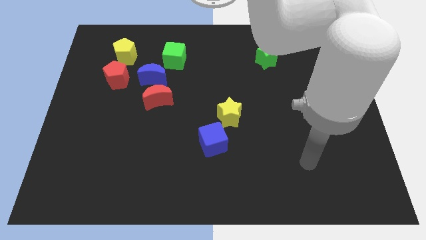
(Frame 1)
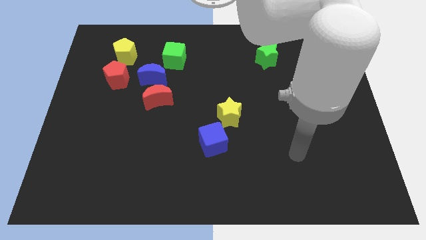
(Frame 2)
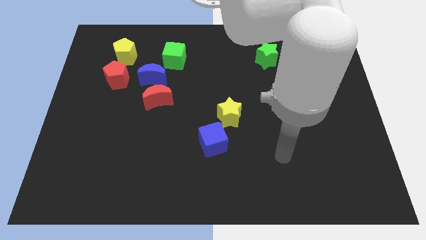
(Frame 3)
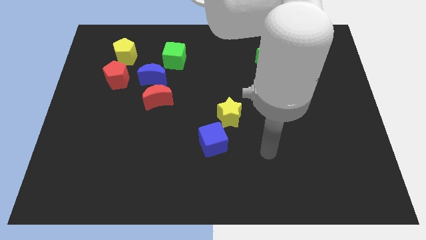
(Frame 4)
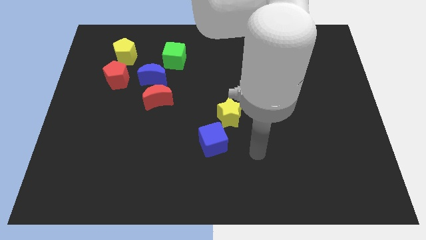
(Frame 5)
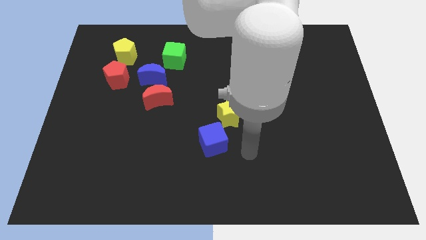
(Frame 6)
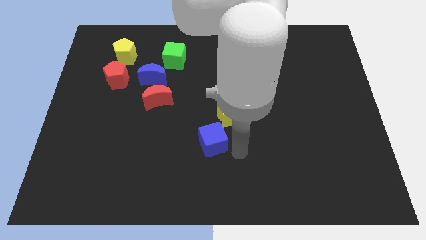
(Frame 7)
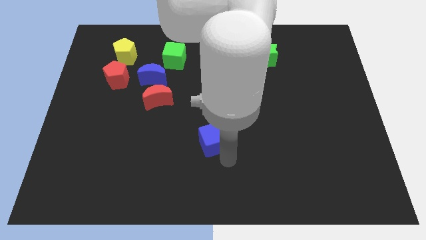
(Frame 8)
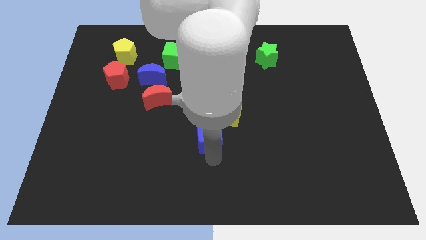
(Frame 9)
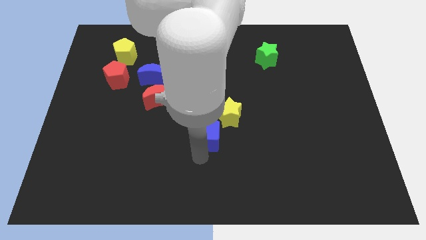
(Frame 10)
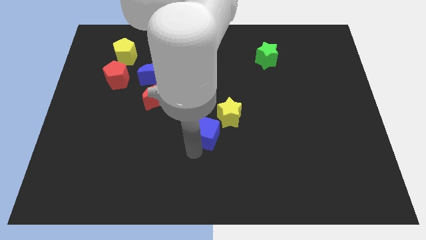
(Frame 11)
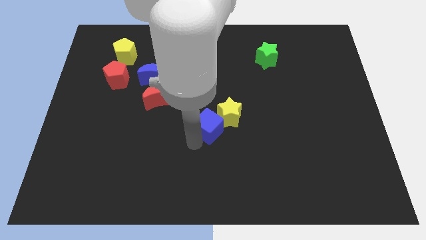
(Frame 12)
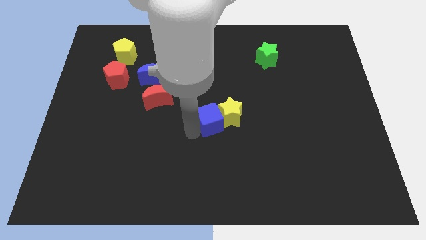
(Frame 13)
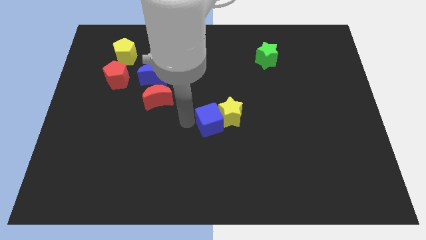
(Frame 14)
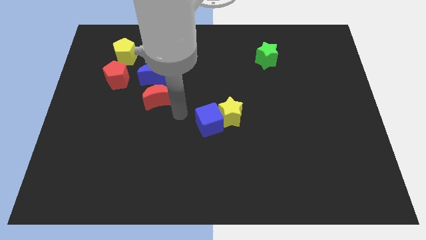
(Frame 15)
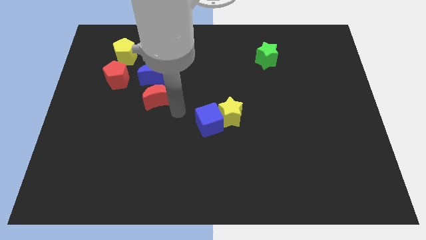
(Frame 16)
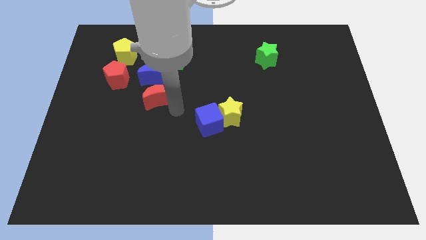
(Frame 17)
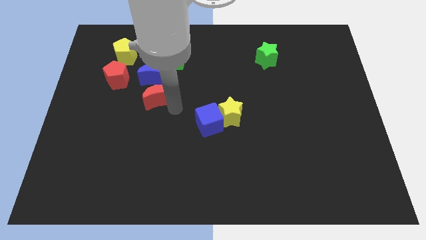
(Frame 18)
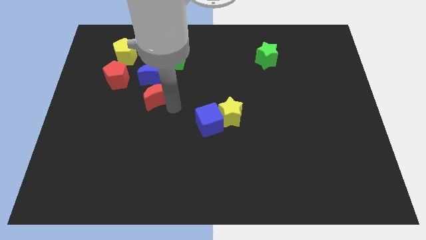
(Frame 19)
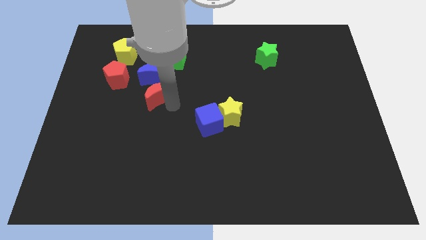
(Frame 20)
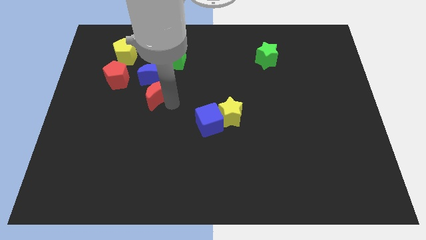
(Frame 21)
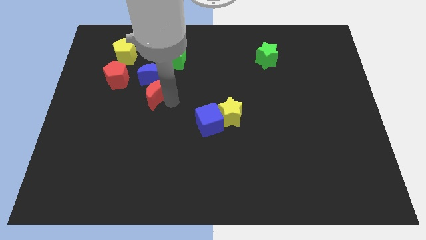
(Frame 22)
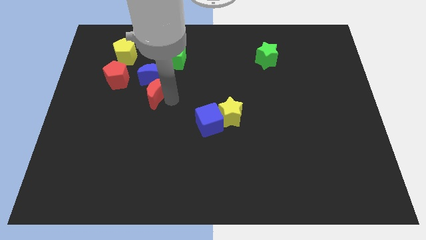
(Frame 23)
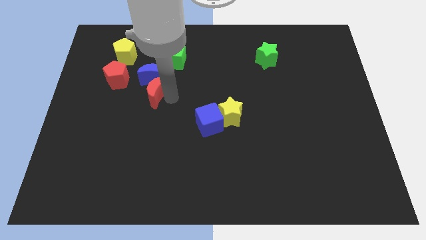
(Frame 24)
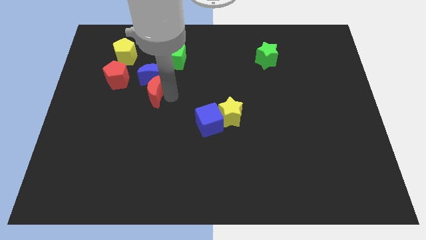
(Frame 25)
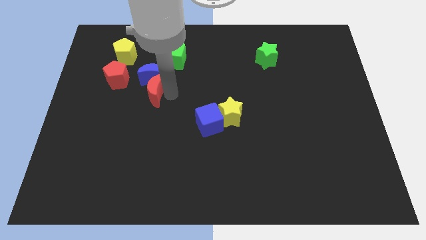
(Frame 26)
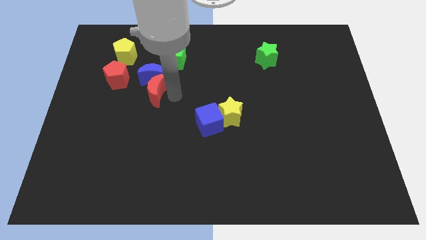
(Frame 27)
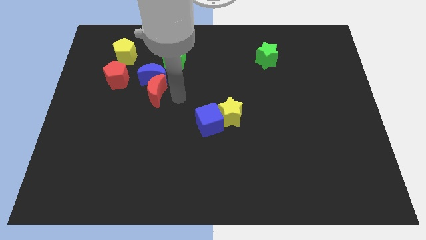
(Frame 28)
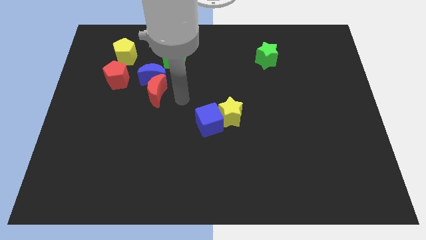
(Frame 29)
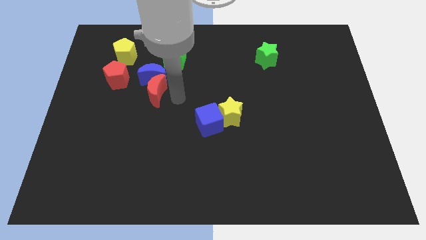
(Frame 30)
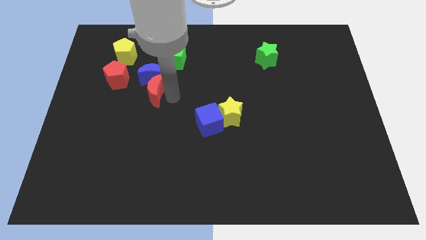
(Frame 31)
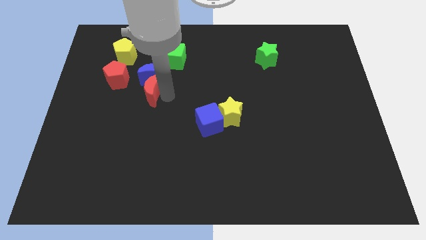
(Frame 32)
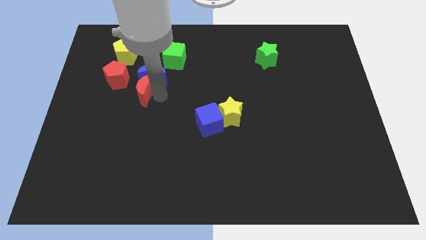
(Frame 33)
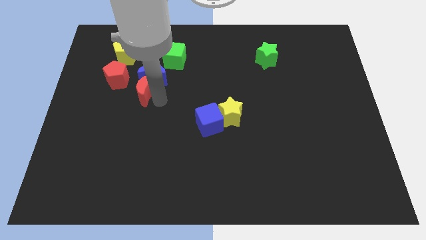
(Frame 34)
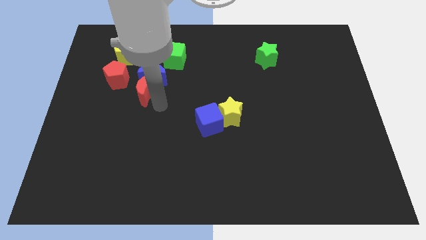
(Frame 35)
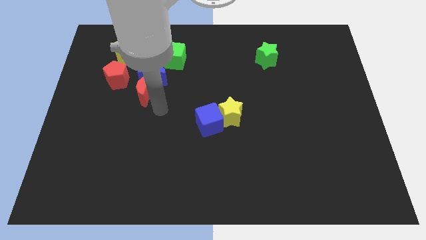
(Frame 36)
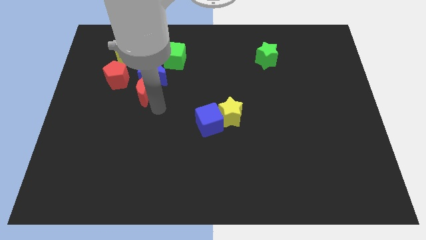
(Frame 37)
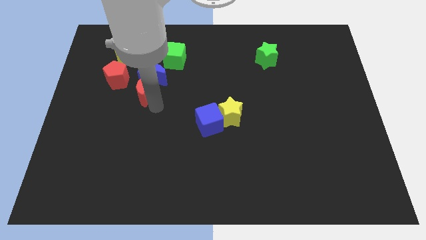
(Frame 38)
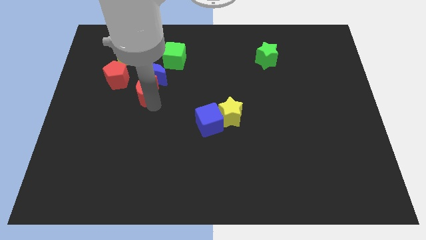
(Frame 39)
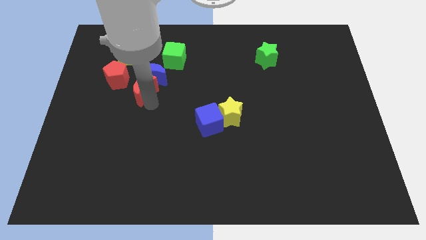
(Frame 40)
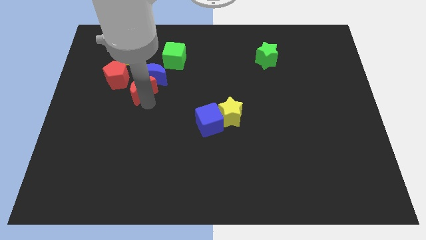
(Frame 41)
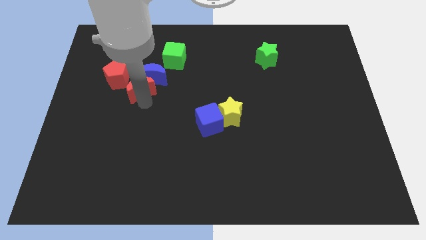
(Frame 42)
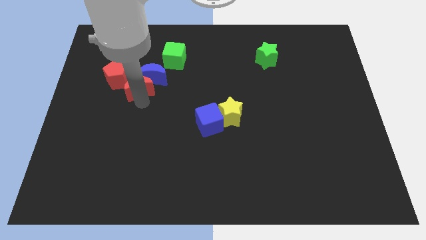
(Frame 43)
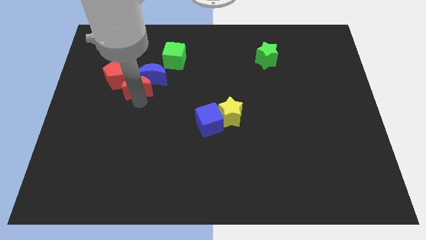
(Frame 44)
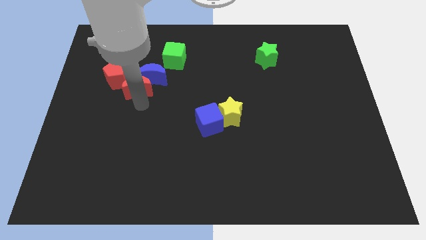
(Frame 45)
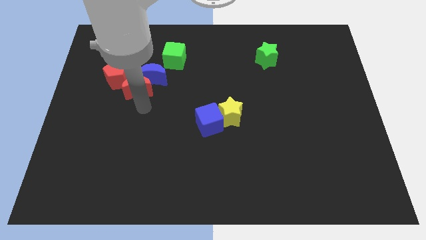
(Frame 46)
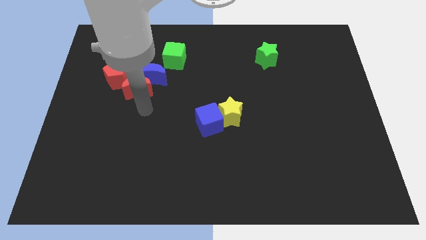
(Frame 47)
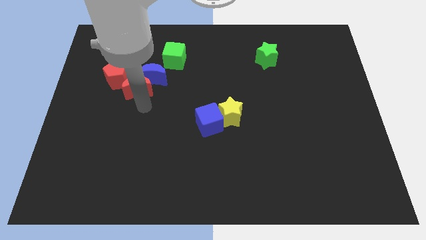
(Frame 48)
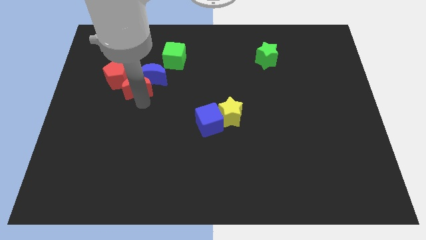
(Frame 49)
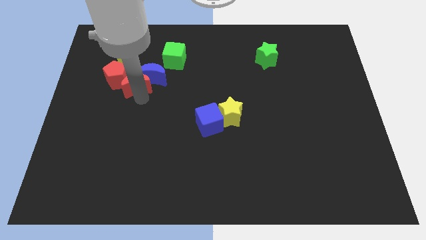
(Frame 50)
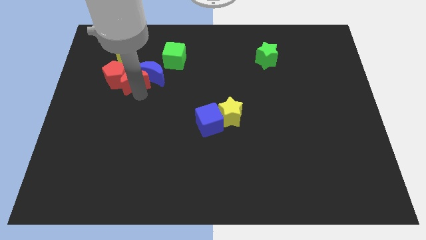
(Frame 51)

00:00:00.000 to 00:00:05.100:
slide the red moon to the top right of the red pentagon
